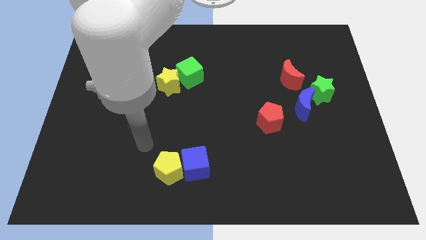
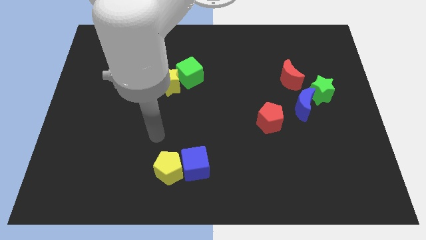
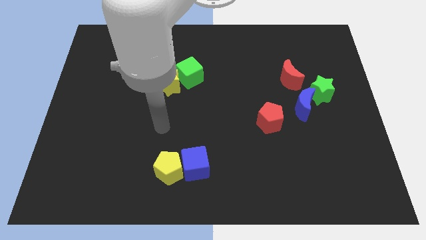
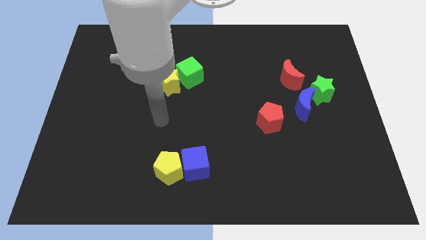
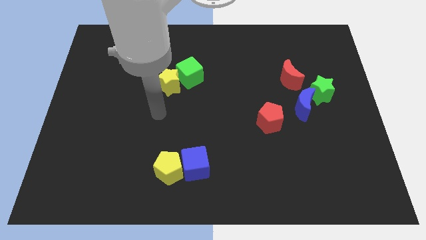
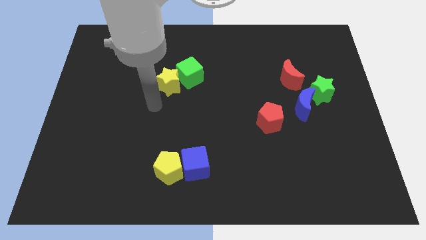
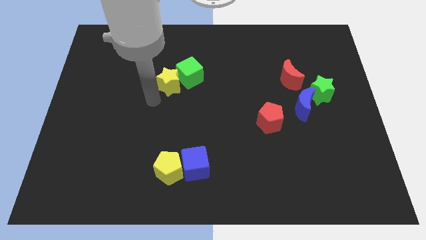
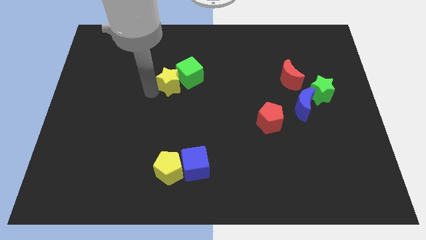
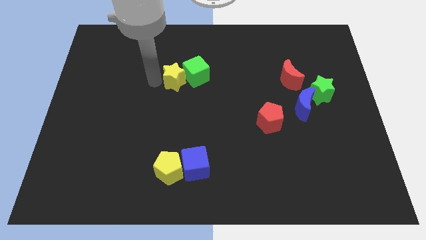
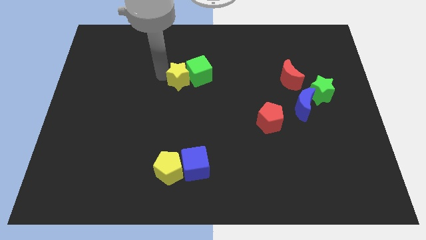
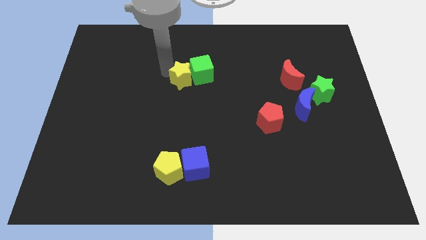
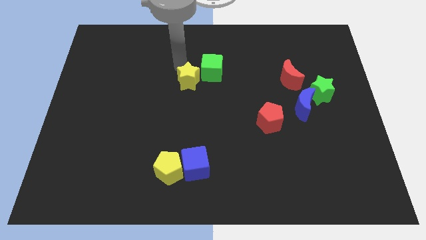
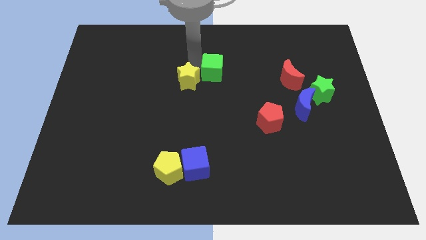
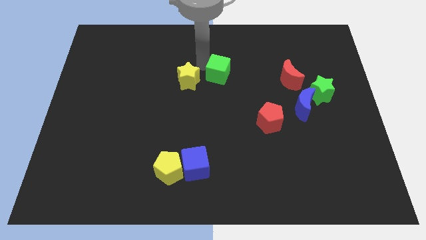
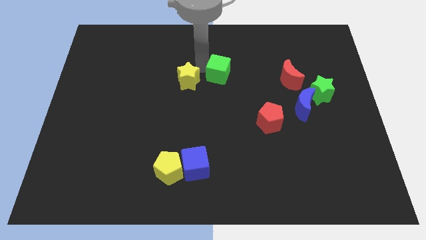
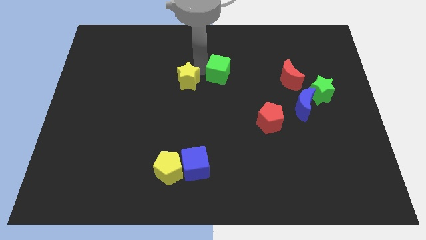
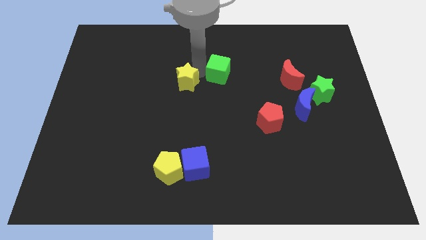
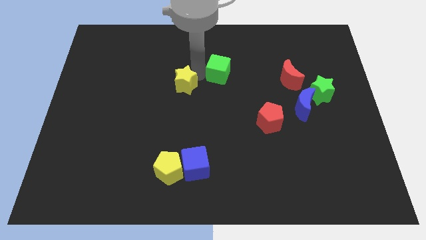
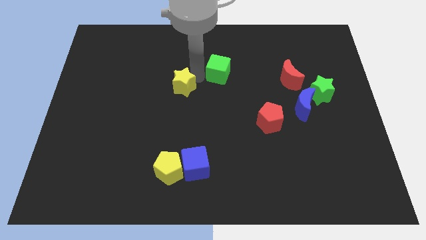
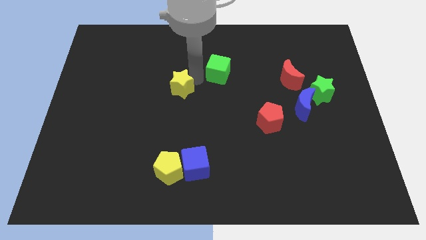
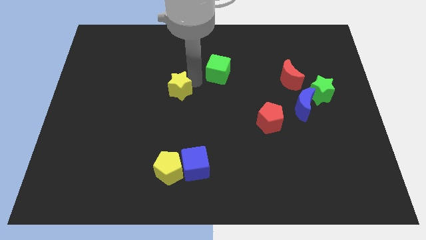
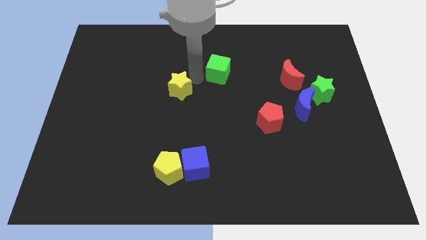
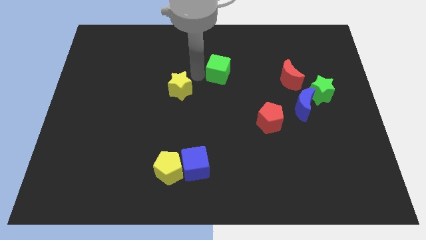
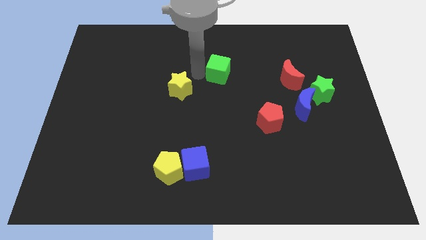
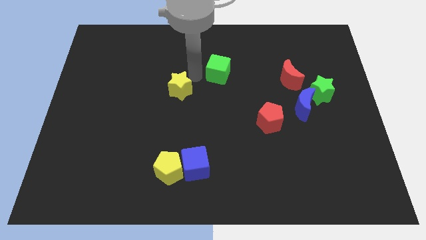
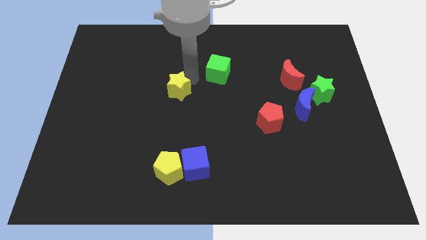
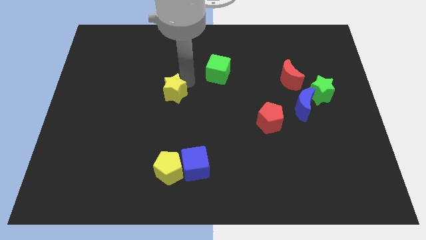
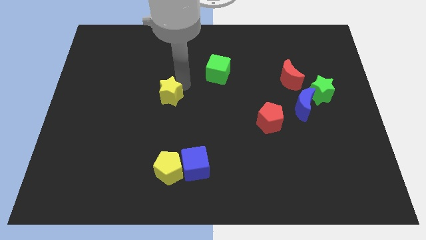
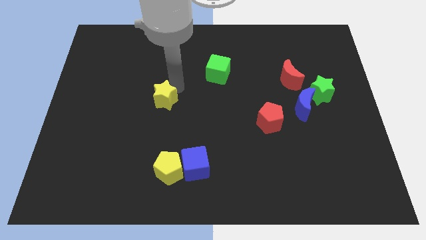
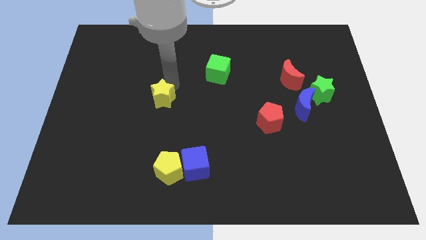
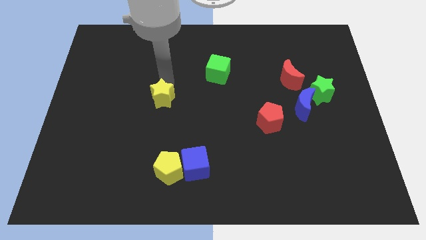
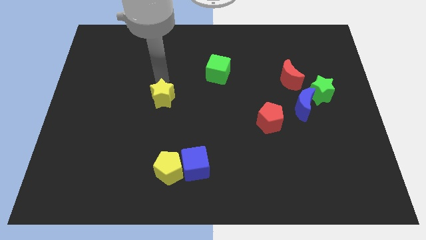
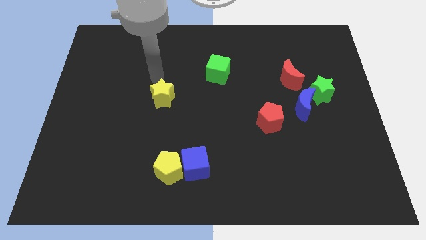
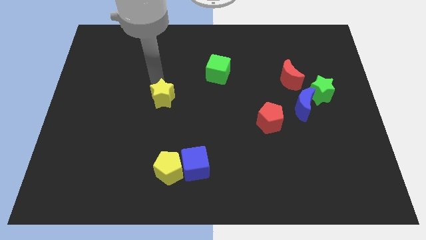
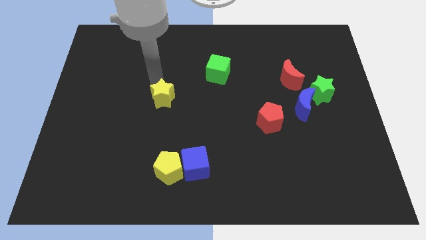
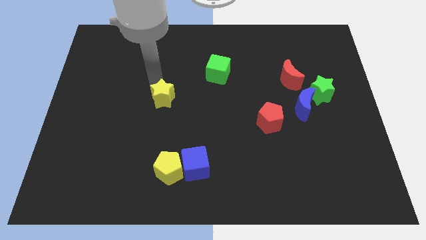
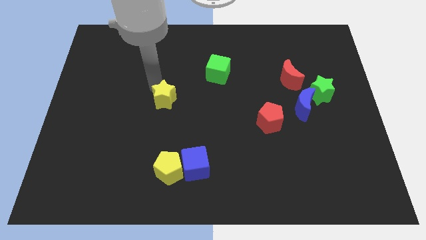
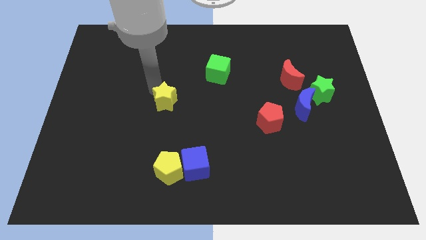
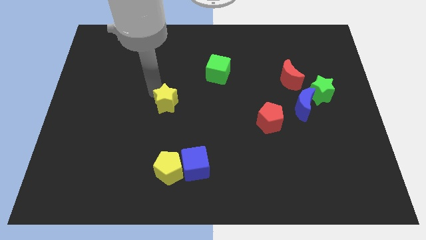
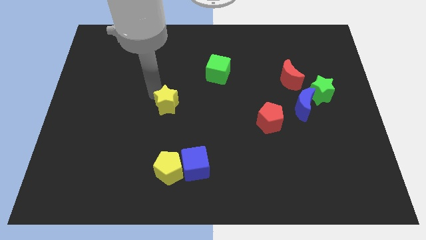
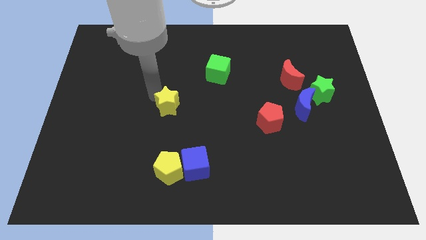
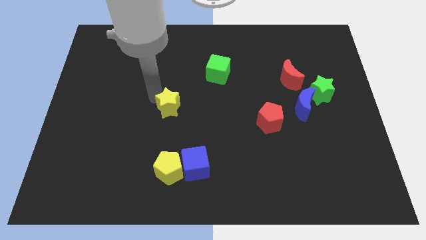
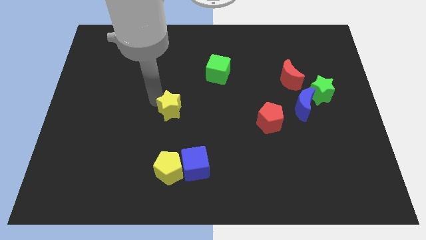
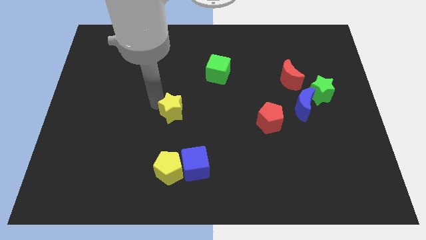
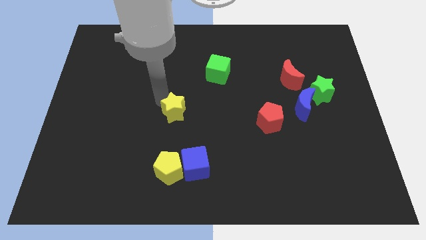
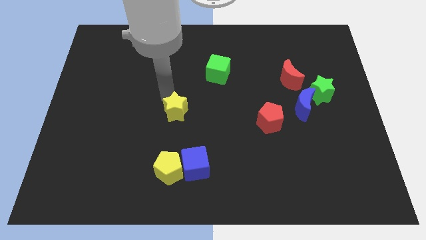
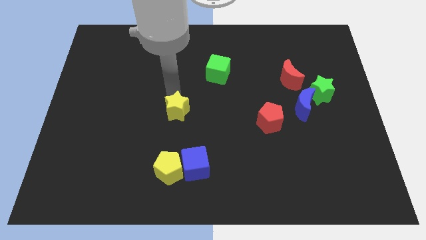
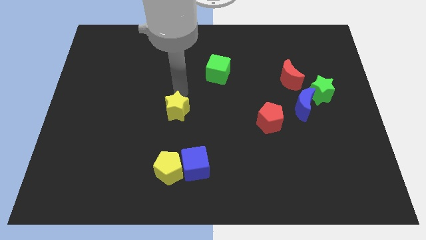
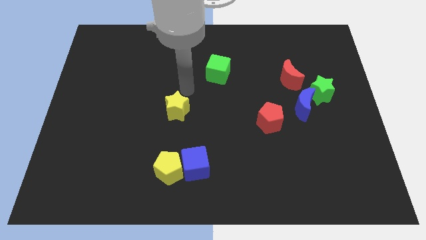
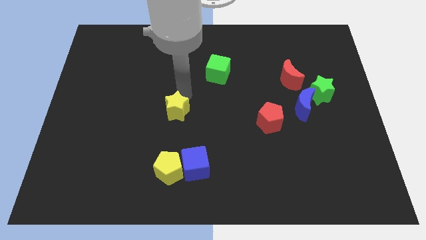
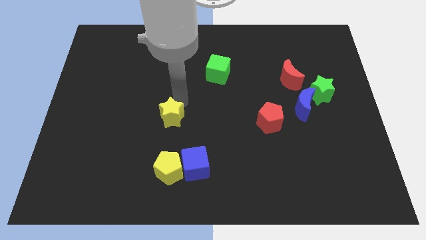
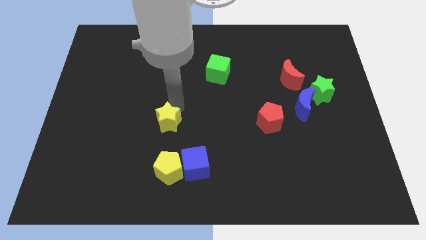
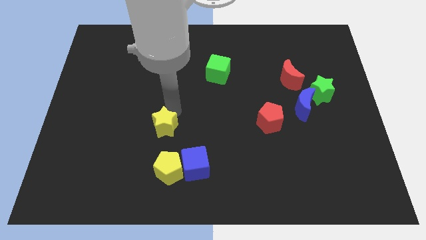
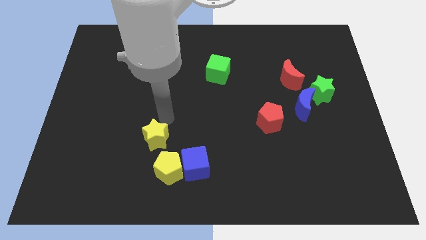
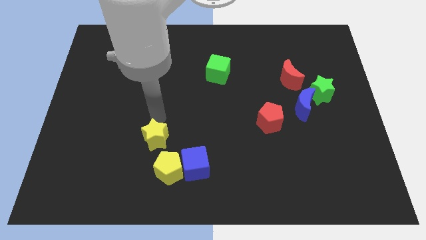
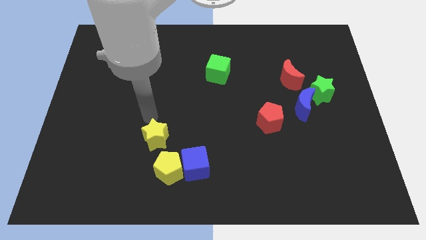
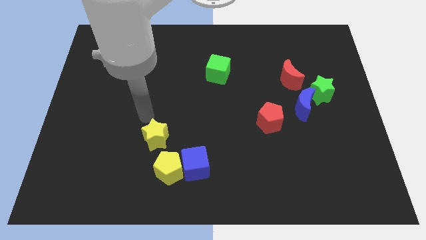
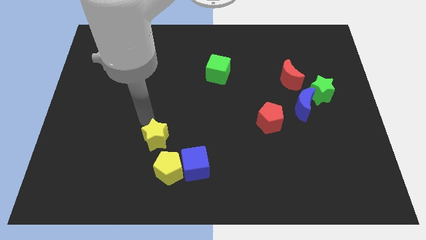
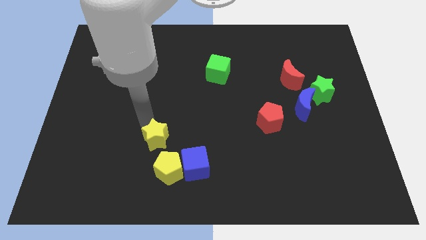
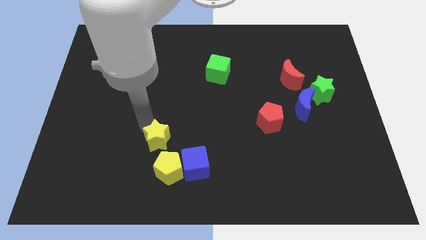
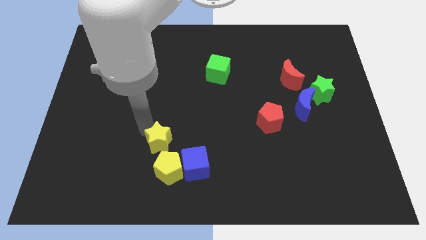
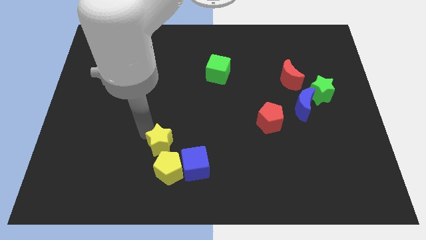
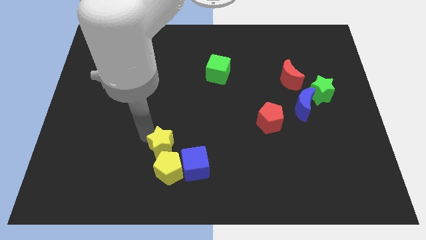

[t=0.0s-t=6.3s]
slide the yellow star to the yellow pentagon
